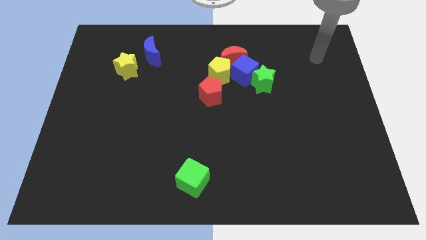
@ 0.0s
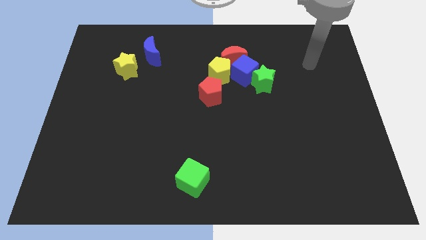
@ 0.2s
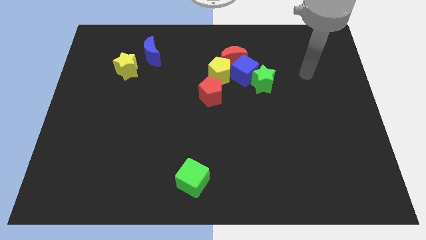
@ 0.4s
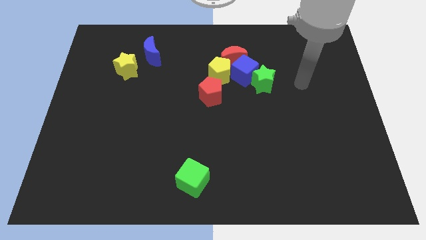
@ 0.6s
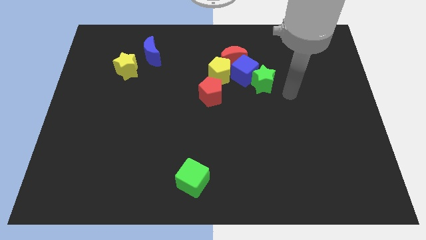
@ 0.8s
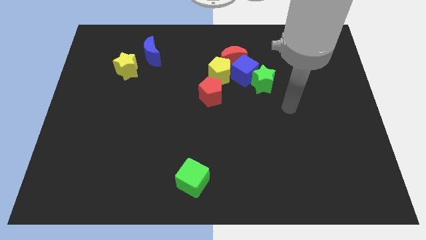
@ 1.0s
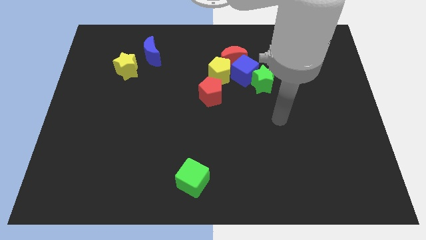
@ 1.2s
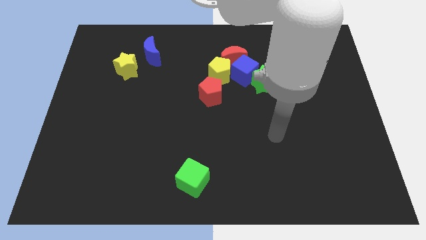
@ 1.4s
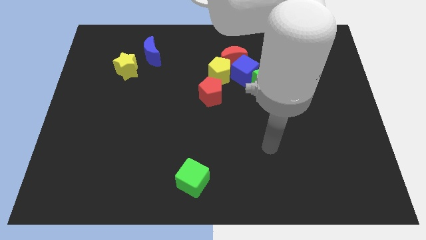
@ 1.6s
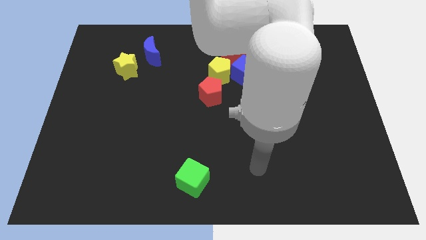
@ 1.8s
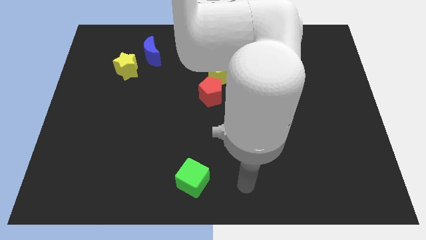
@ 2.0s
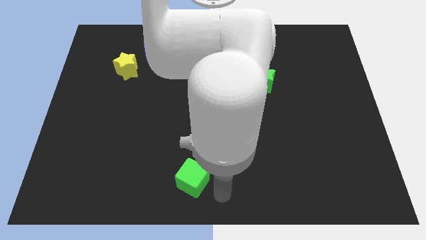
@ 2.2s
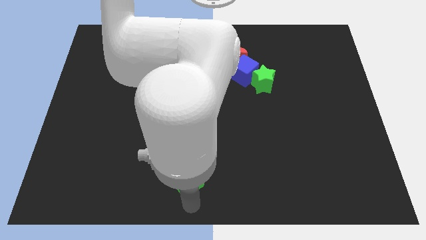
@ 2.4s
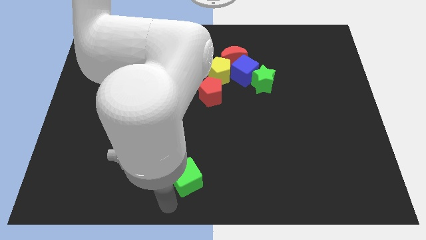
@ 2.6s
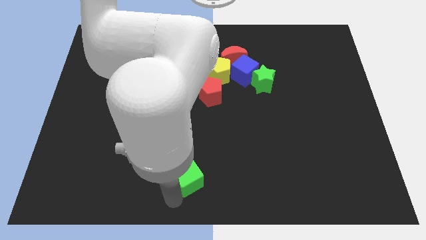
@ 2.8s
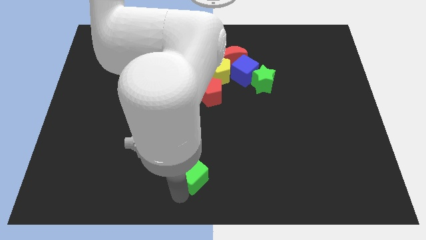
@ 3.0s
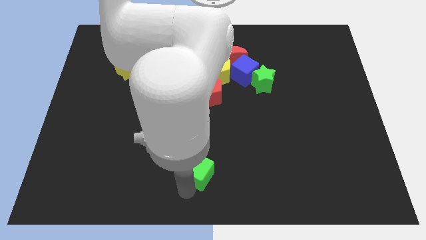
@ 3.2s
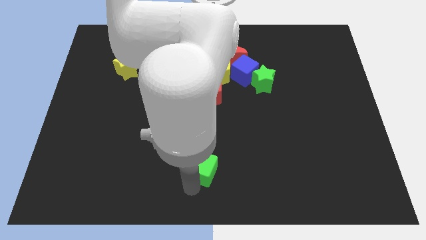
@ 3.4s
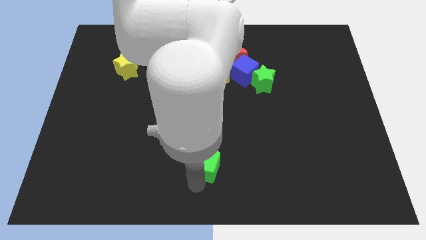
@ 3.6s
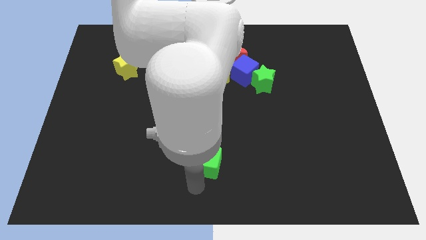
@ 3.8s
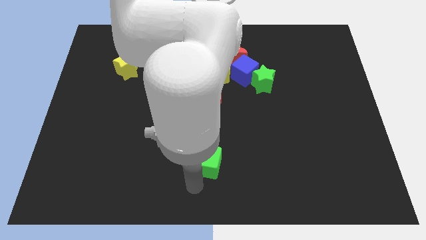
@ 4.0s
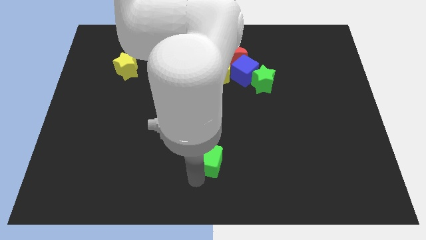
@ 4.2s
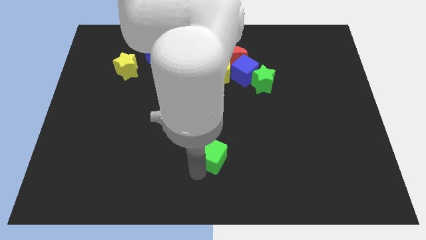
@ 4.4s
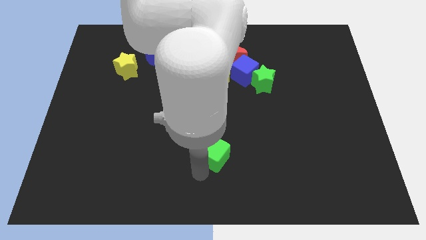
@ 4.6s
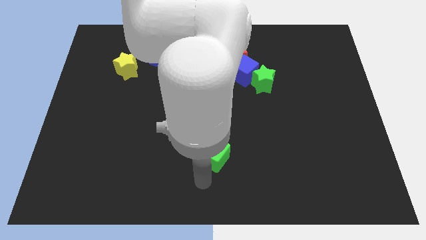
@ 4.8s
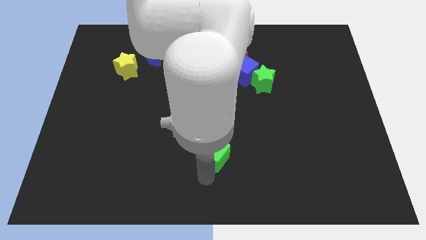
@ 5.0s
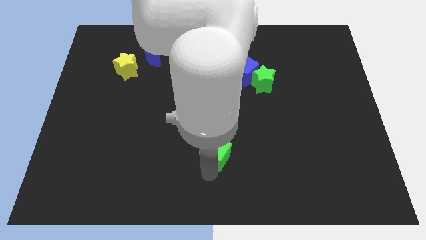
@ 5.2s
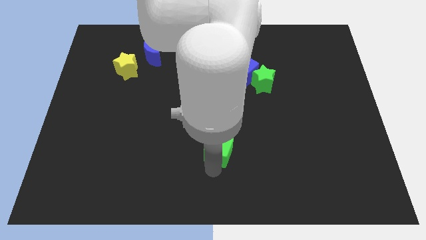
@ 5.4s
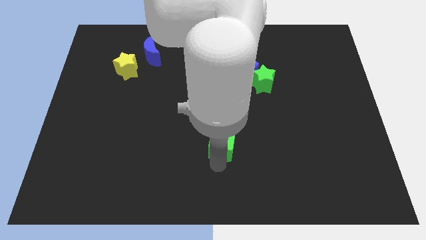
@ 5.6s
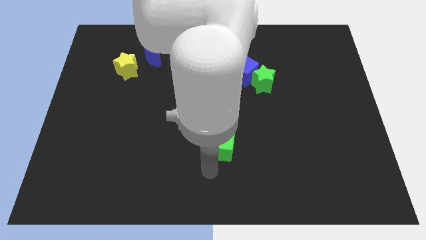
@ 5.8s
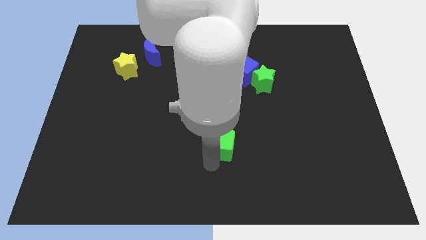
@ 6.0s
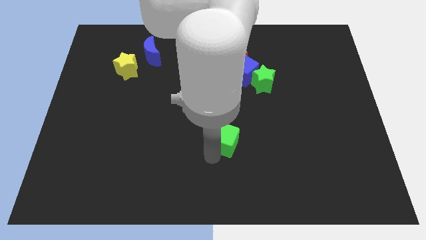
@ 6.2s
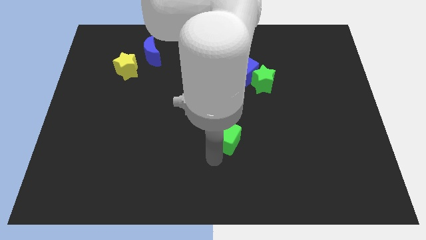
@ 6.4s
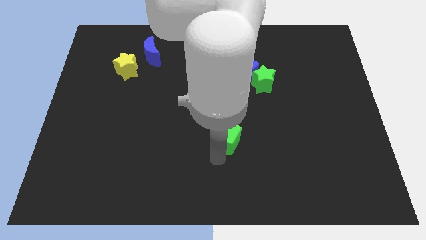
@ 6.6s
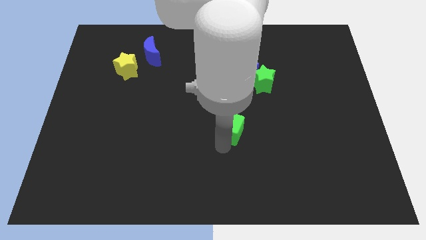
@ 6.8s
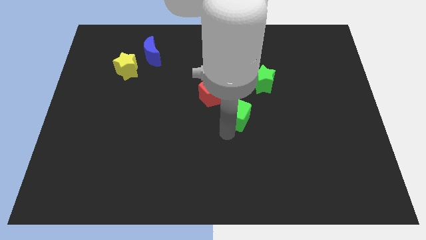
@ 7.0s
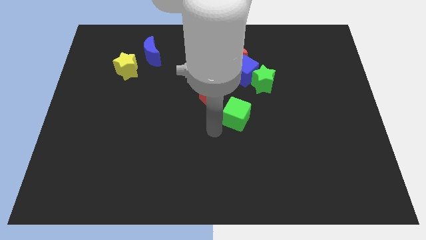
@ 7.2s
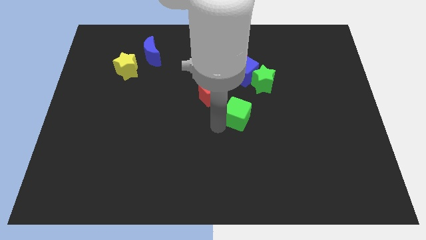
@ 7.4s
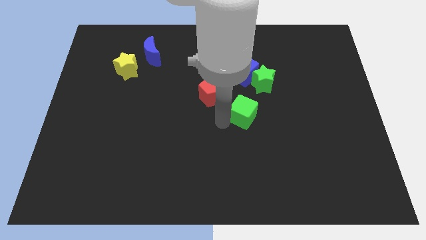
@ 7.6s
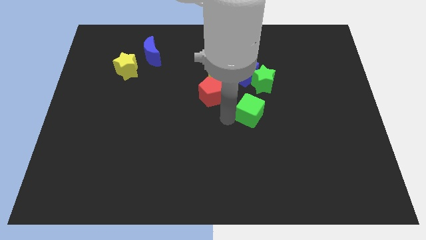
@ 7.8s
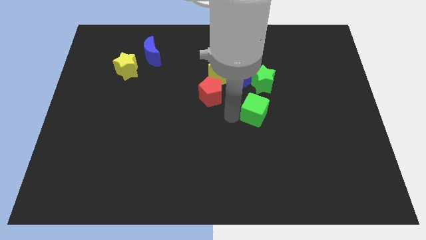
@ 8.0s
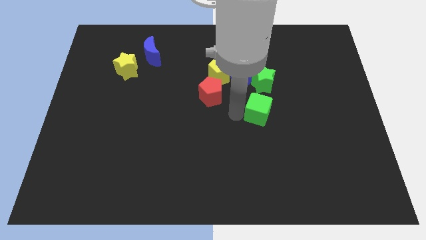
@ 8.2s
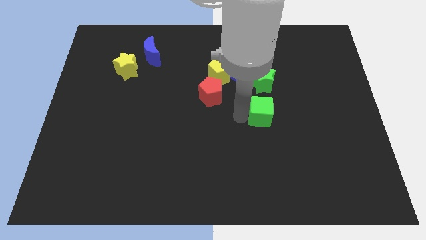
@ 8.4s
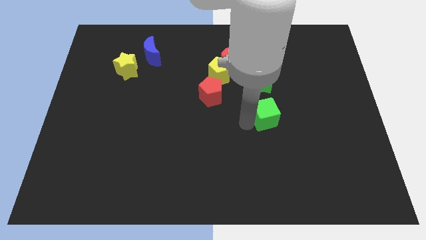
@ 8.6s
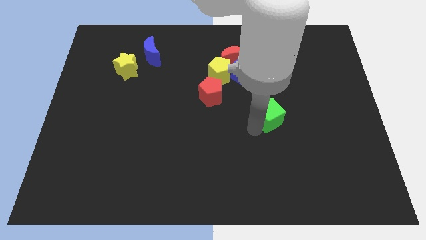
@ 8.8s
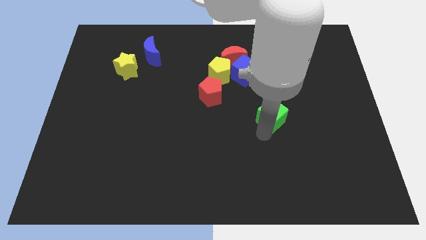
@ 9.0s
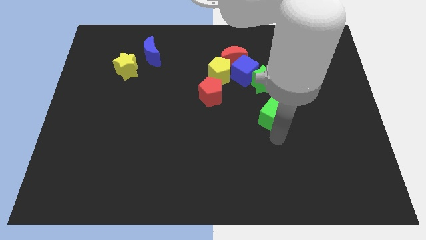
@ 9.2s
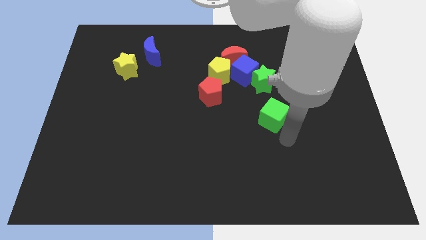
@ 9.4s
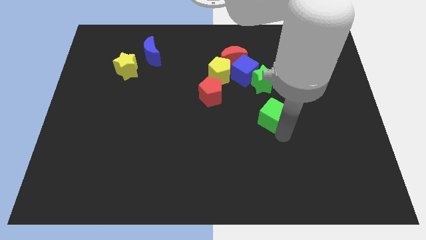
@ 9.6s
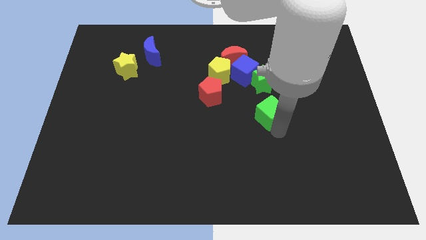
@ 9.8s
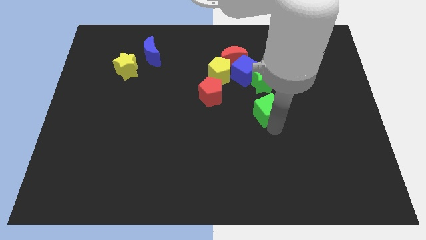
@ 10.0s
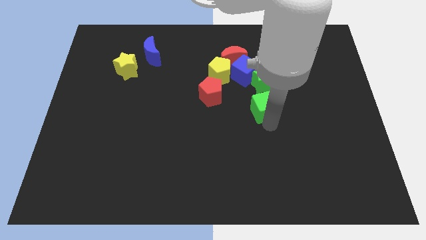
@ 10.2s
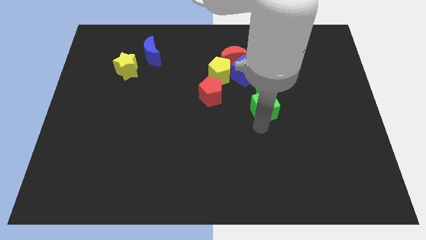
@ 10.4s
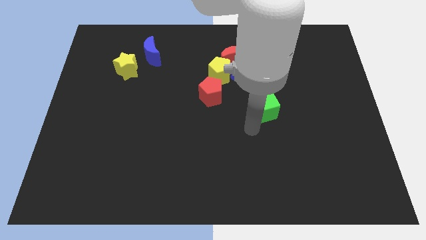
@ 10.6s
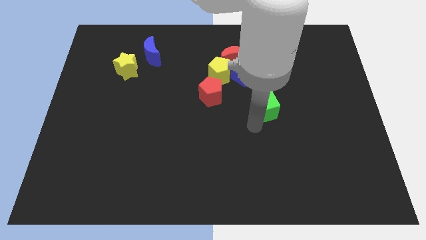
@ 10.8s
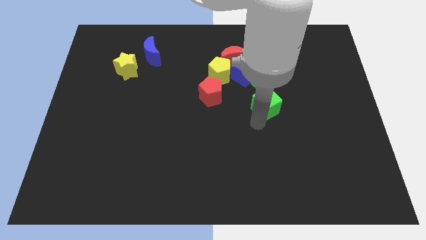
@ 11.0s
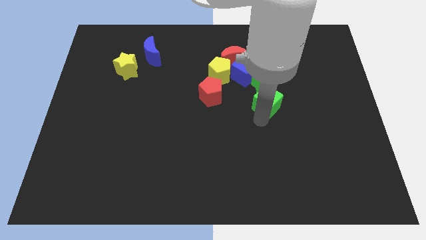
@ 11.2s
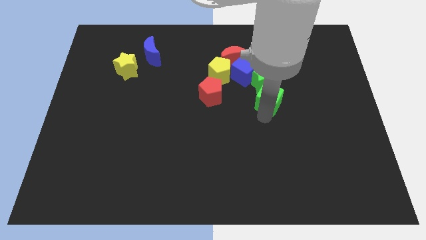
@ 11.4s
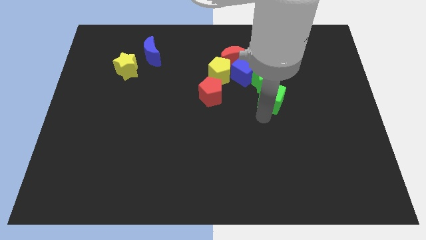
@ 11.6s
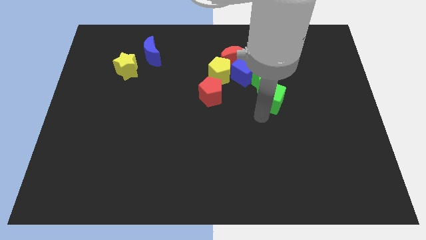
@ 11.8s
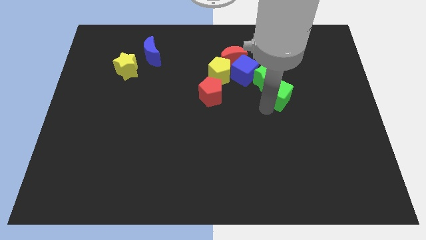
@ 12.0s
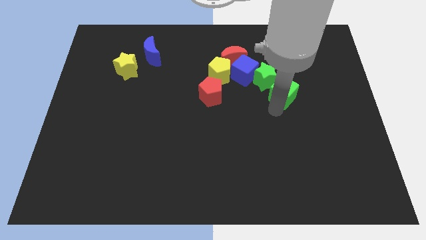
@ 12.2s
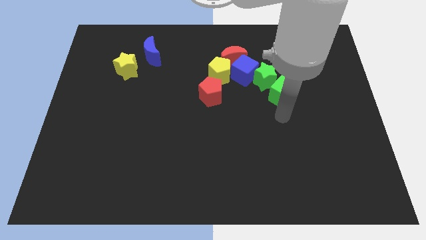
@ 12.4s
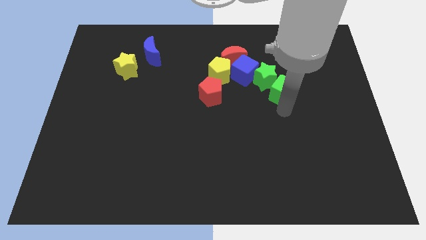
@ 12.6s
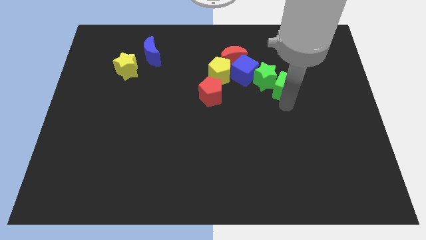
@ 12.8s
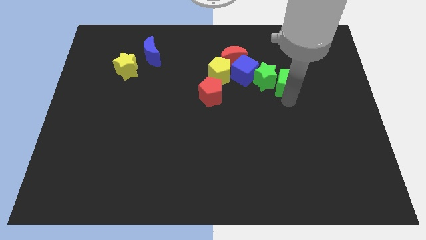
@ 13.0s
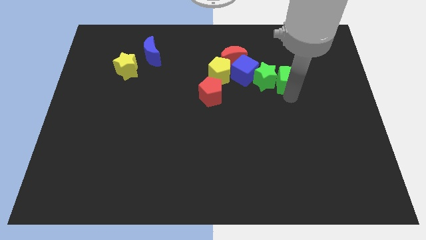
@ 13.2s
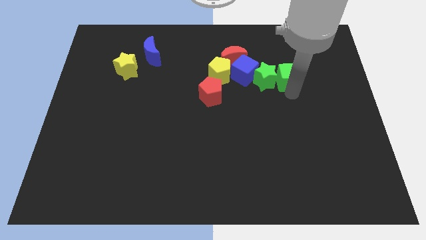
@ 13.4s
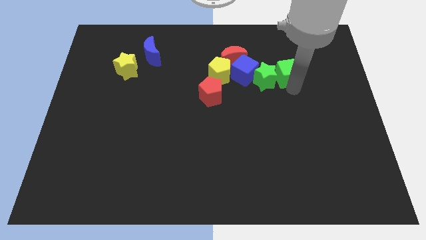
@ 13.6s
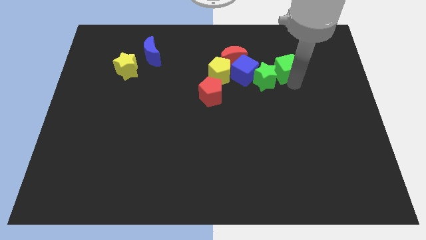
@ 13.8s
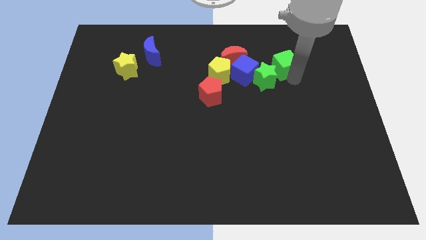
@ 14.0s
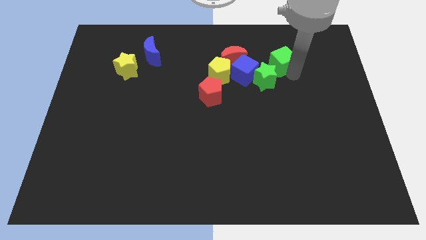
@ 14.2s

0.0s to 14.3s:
move the green cube diagonally up and to the right of the blue cube

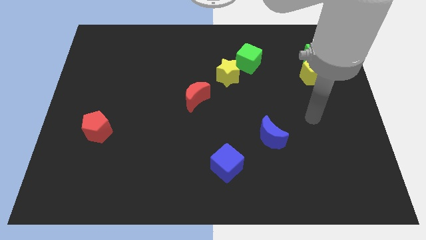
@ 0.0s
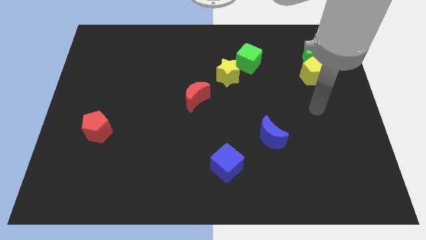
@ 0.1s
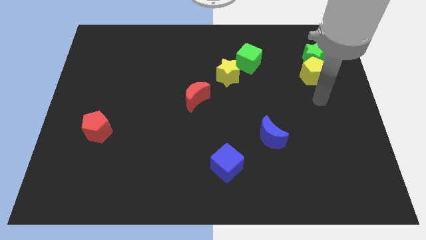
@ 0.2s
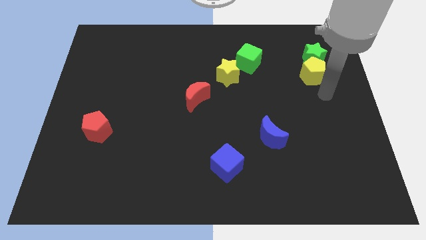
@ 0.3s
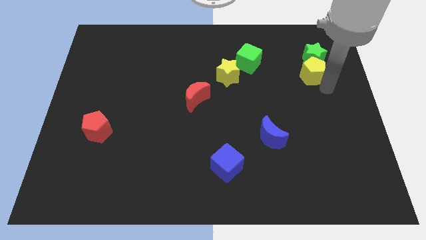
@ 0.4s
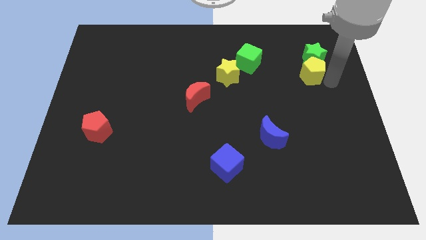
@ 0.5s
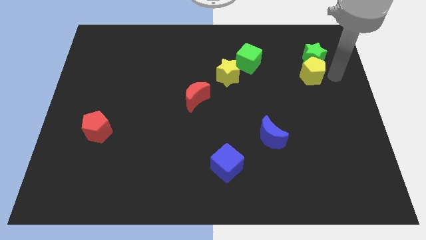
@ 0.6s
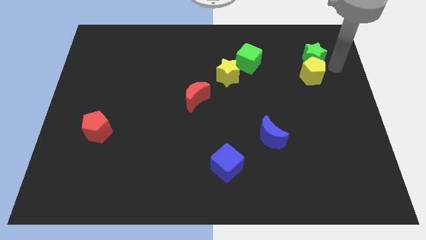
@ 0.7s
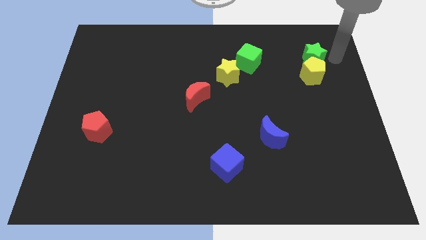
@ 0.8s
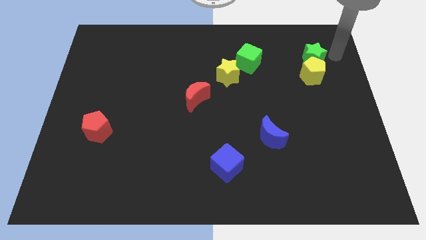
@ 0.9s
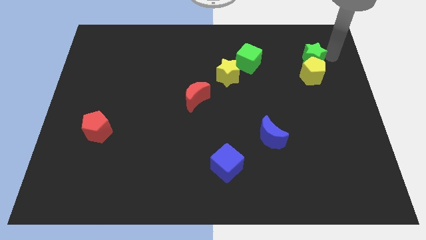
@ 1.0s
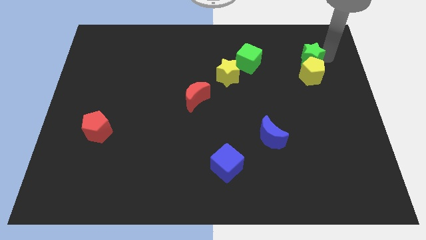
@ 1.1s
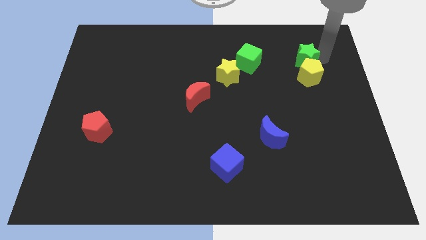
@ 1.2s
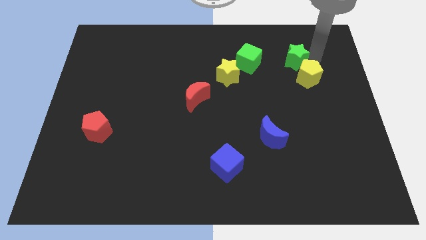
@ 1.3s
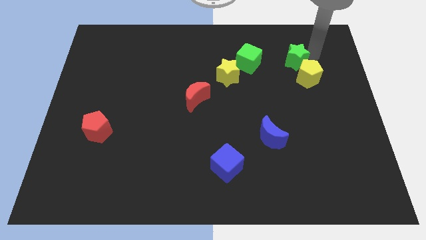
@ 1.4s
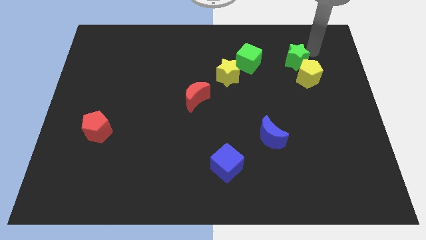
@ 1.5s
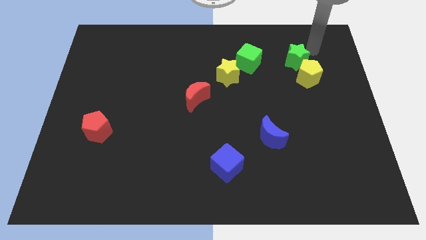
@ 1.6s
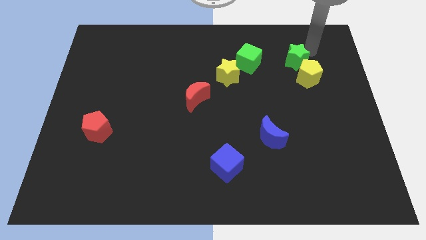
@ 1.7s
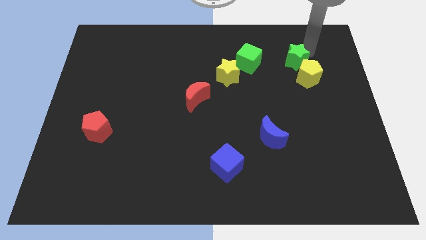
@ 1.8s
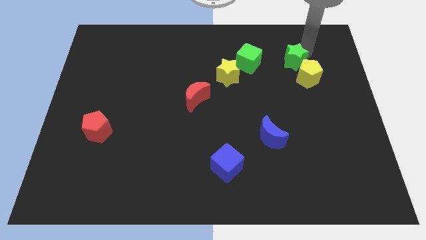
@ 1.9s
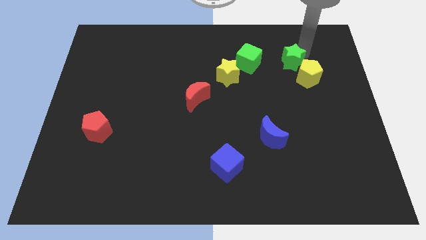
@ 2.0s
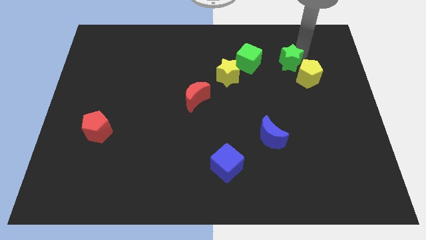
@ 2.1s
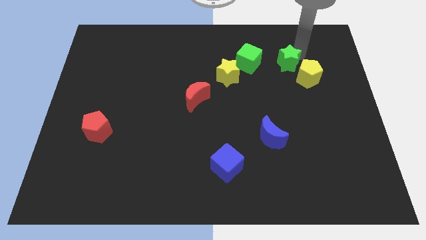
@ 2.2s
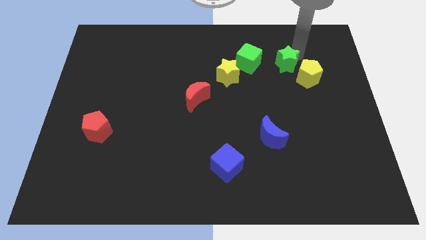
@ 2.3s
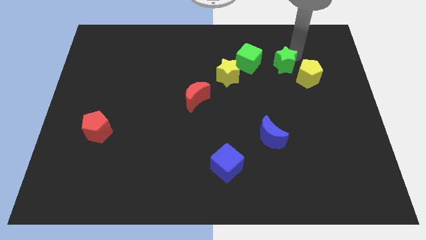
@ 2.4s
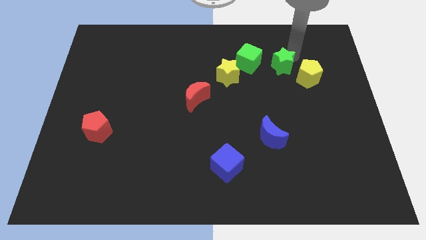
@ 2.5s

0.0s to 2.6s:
slide the green star to the right side of the yellow star
